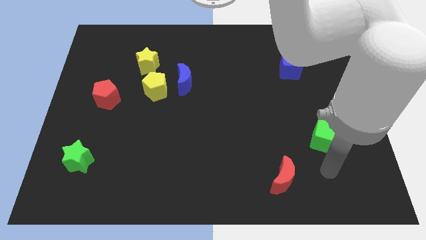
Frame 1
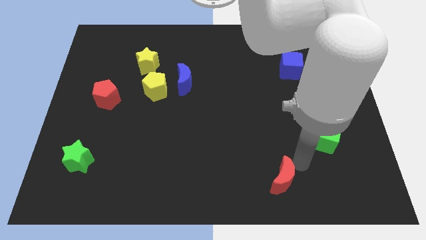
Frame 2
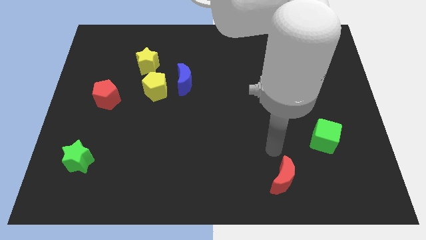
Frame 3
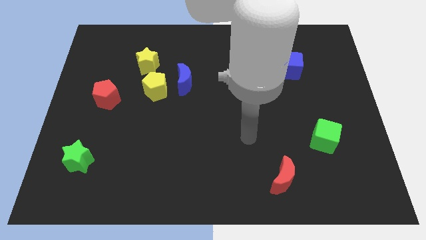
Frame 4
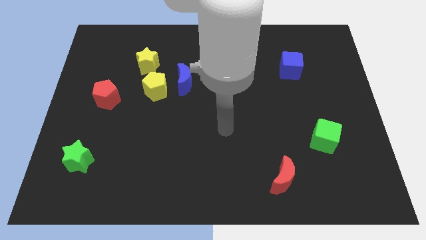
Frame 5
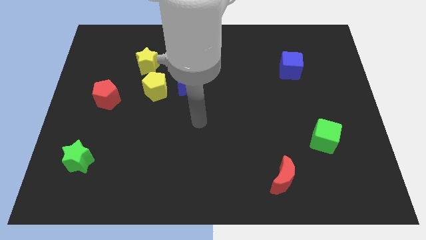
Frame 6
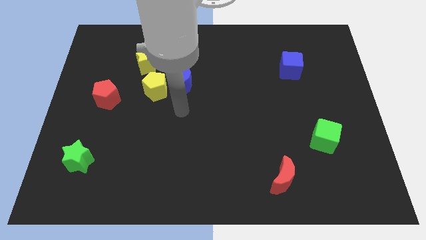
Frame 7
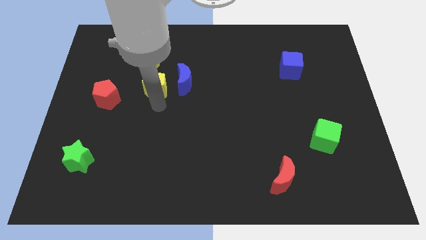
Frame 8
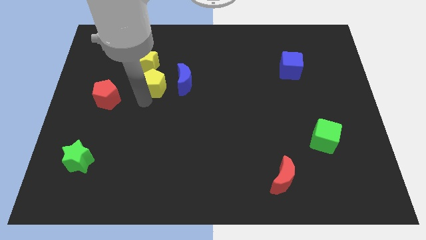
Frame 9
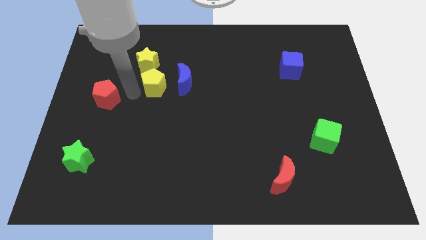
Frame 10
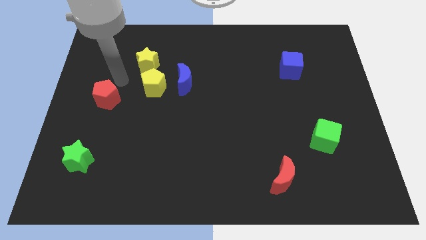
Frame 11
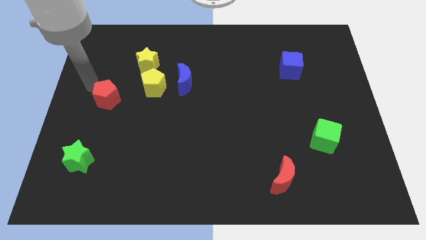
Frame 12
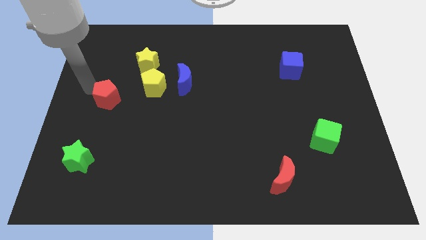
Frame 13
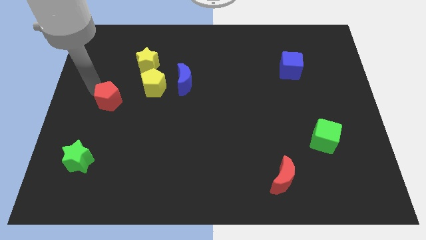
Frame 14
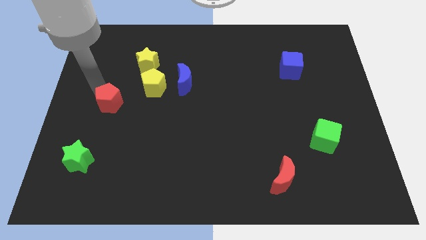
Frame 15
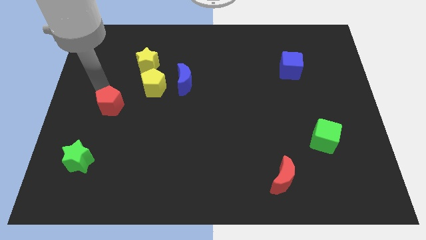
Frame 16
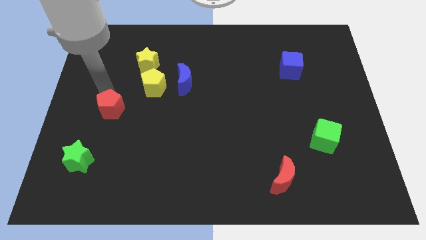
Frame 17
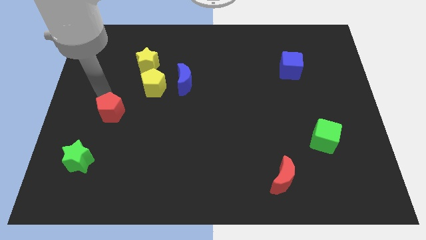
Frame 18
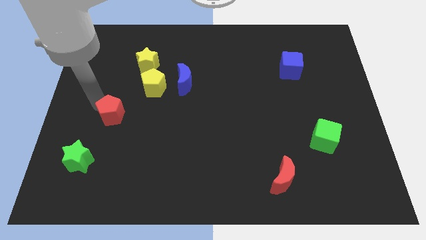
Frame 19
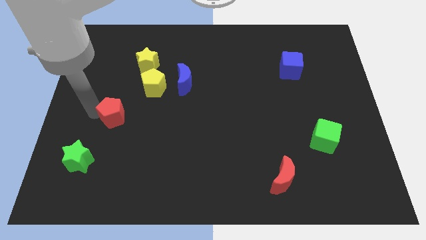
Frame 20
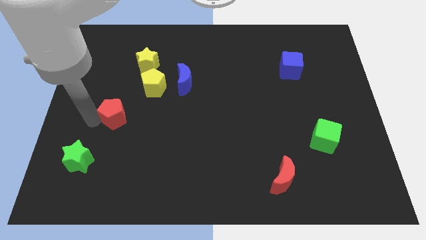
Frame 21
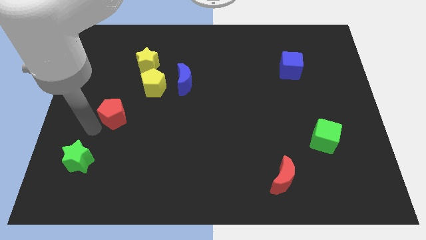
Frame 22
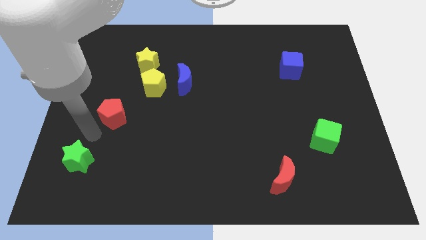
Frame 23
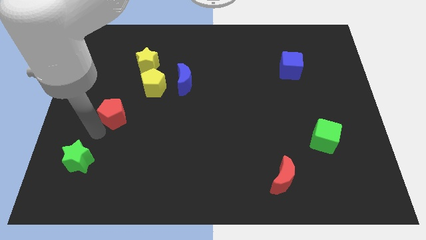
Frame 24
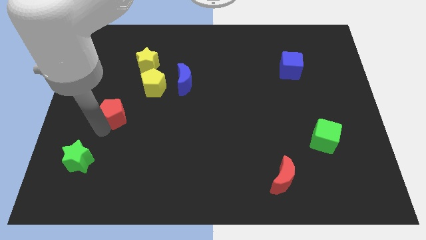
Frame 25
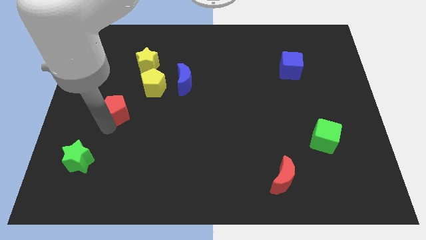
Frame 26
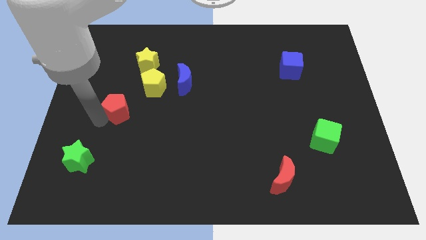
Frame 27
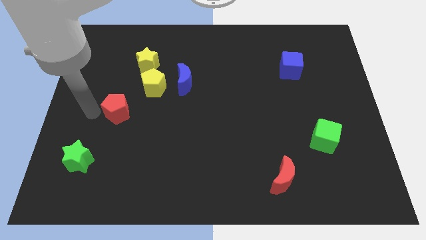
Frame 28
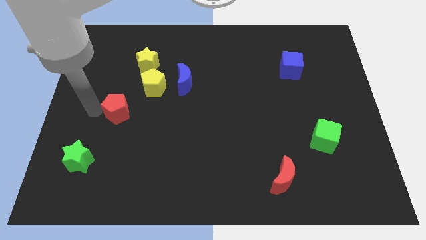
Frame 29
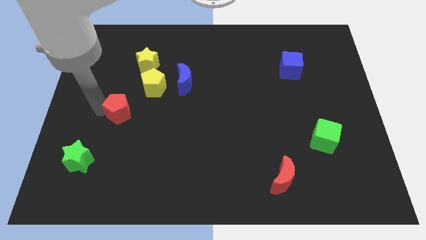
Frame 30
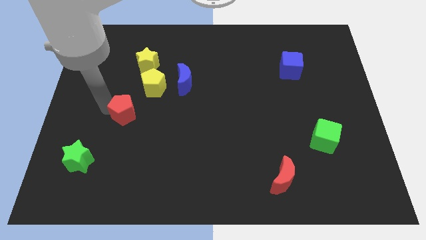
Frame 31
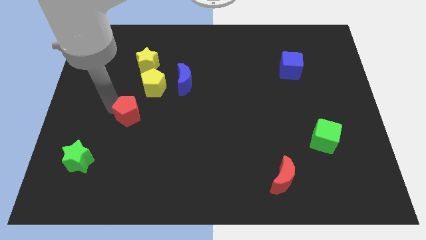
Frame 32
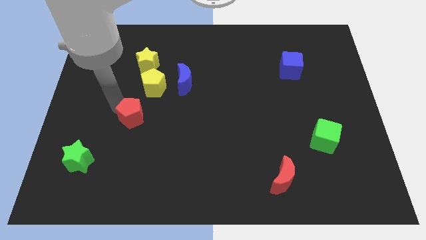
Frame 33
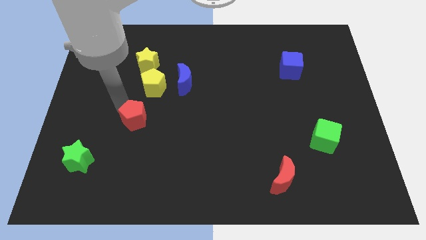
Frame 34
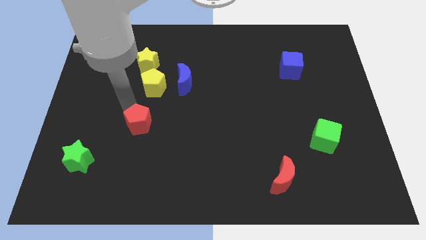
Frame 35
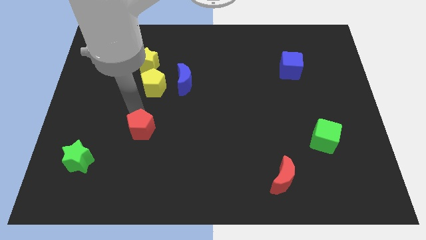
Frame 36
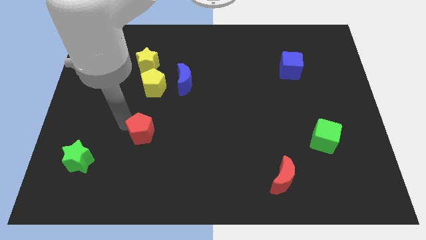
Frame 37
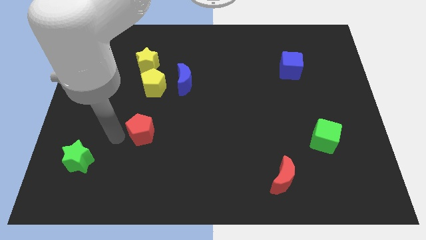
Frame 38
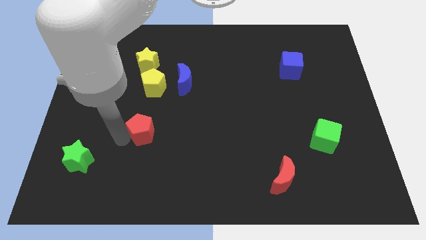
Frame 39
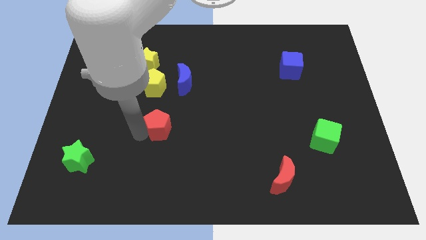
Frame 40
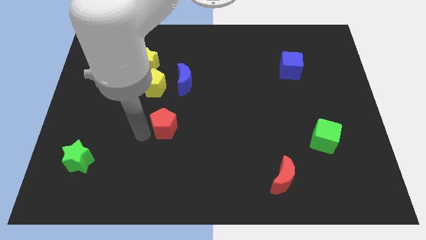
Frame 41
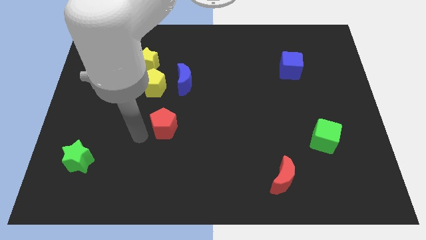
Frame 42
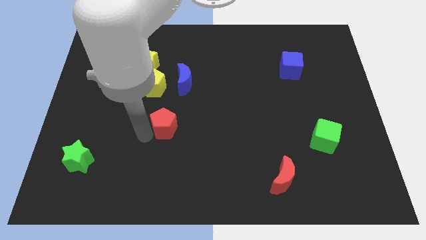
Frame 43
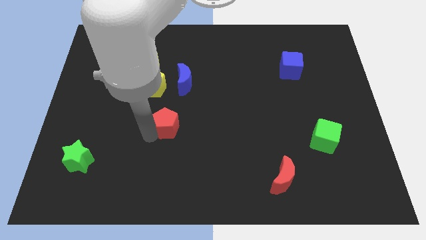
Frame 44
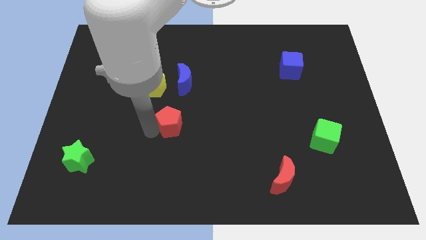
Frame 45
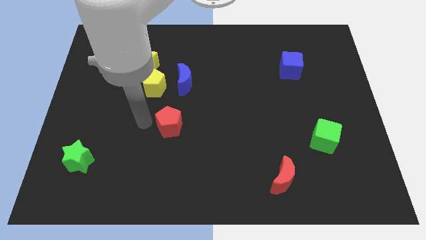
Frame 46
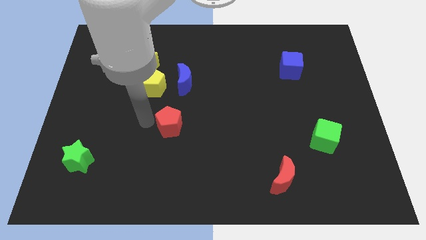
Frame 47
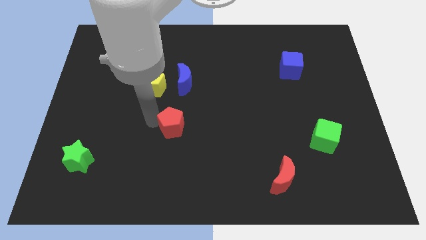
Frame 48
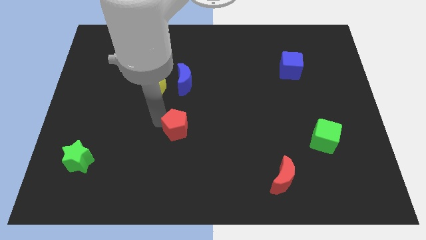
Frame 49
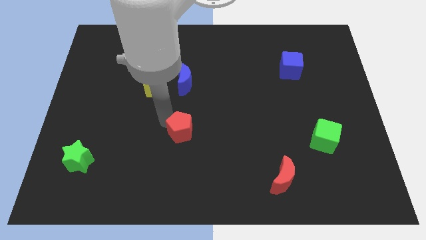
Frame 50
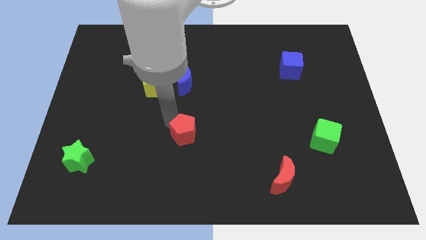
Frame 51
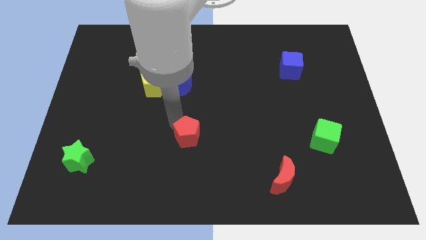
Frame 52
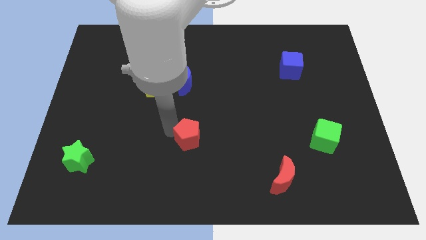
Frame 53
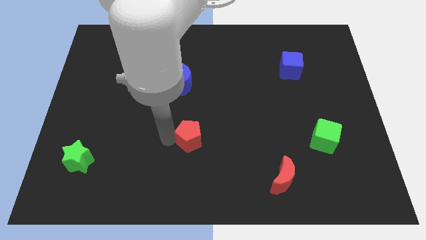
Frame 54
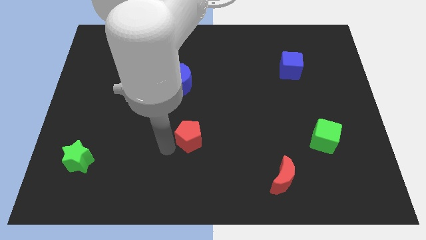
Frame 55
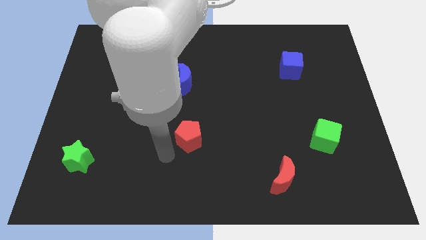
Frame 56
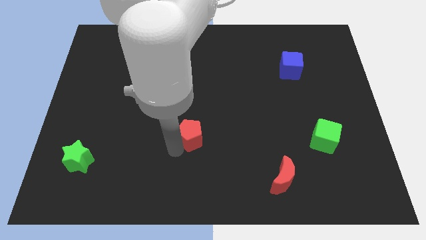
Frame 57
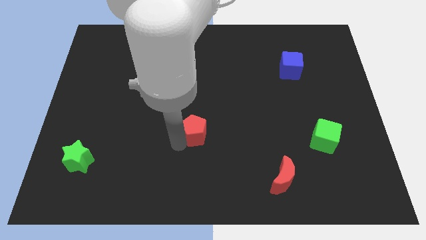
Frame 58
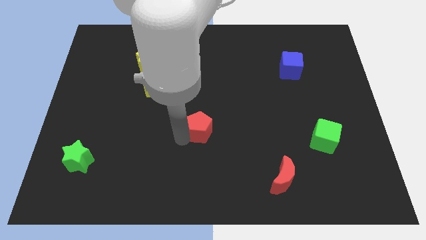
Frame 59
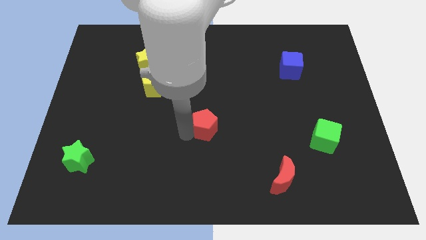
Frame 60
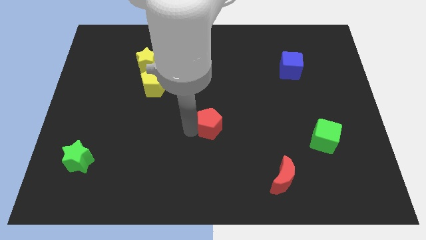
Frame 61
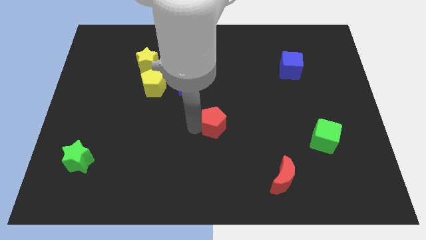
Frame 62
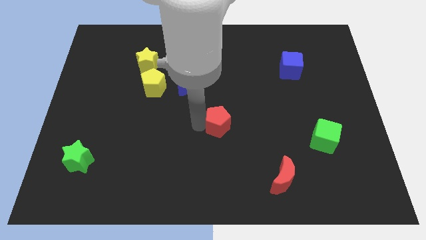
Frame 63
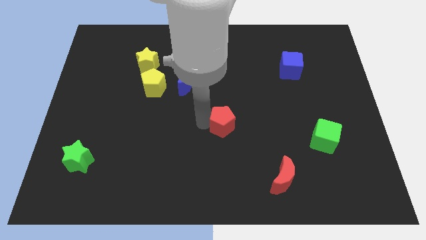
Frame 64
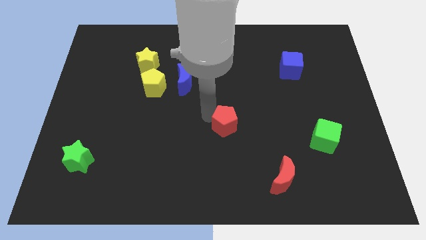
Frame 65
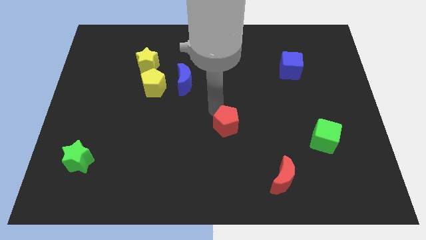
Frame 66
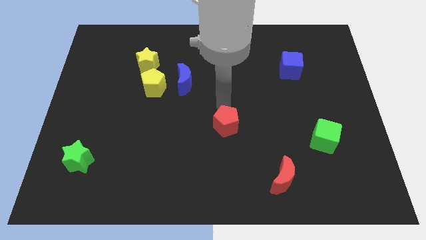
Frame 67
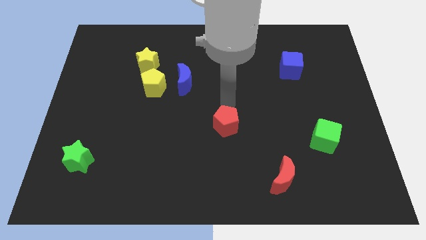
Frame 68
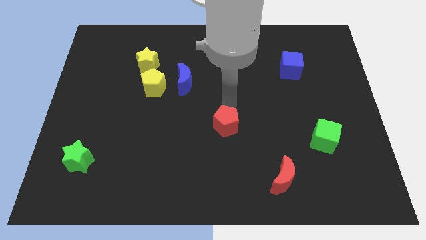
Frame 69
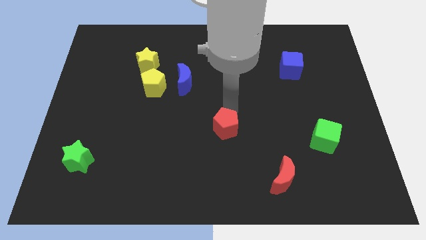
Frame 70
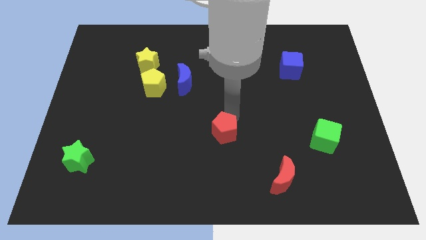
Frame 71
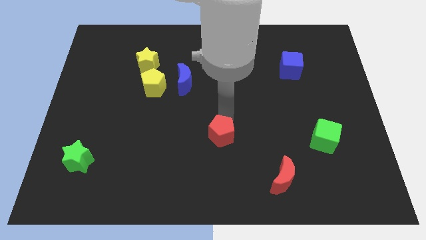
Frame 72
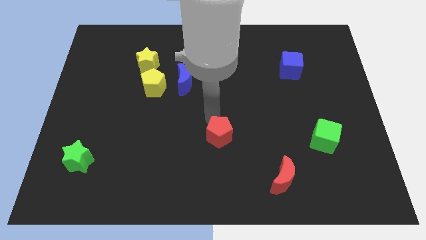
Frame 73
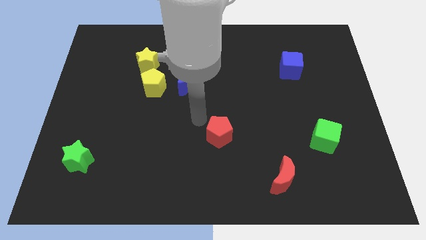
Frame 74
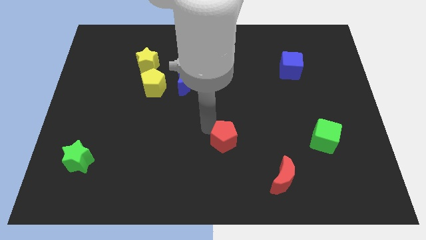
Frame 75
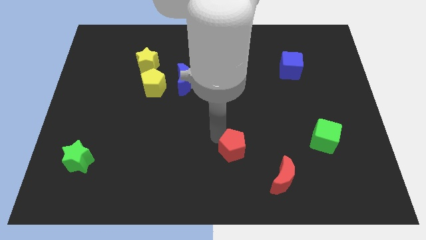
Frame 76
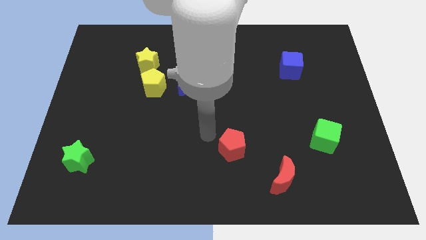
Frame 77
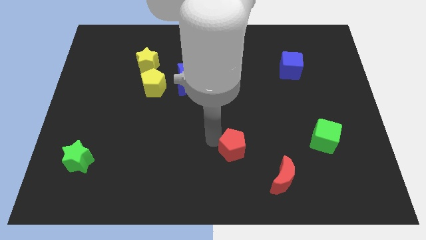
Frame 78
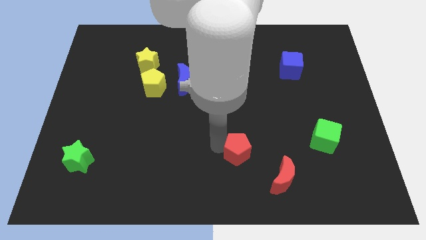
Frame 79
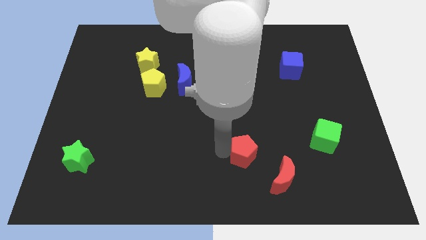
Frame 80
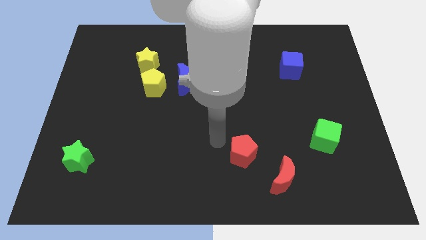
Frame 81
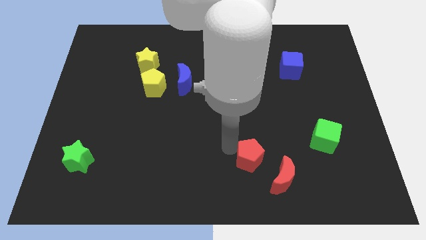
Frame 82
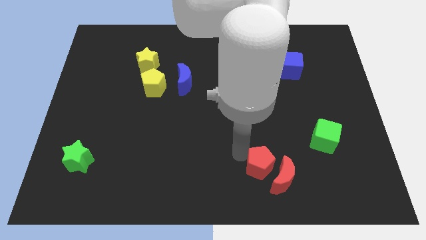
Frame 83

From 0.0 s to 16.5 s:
slide the red pentagon to the red moon
